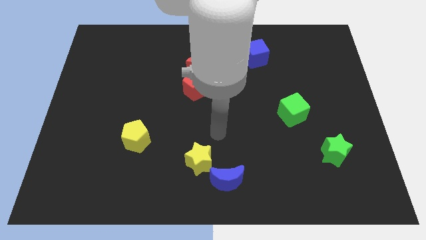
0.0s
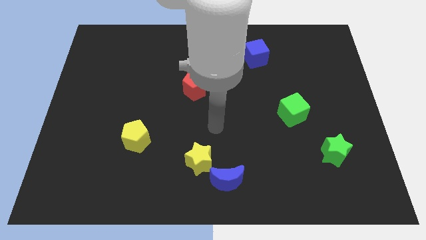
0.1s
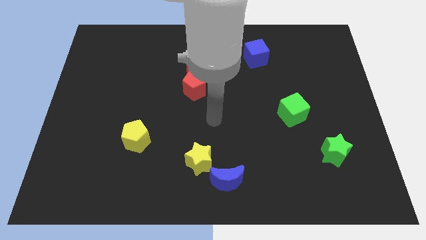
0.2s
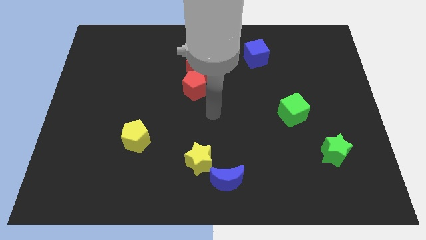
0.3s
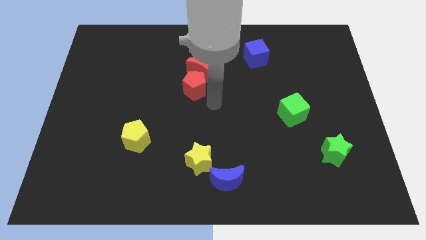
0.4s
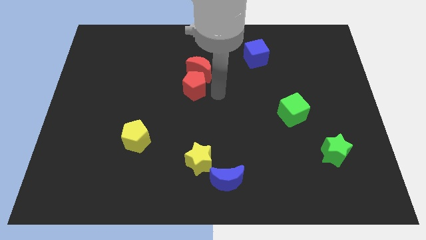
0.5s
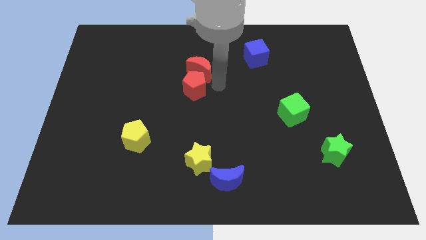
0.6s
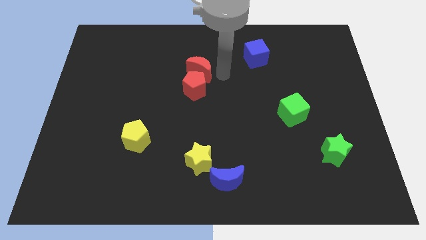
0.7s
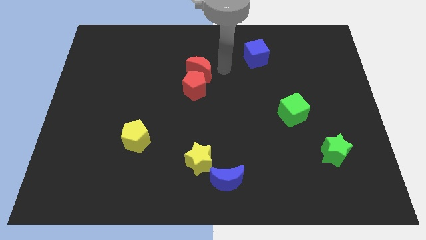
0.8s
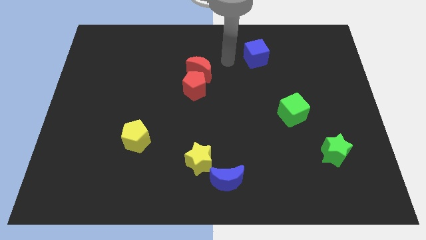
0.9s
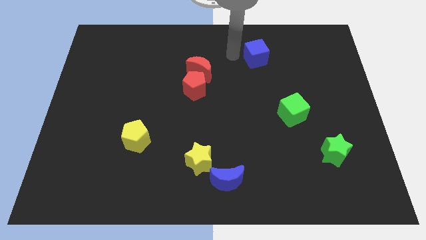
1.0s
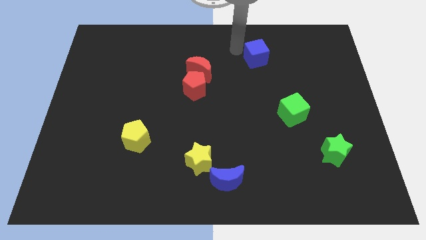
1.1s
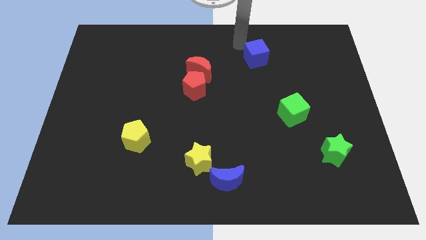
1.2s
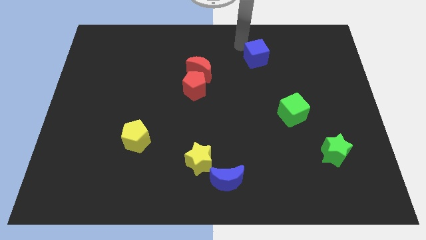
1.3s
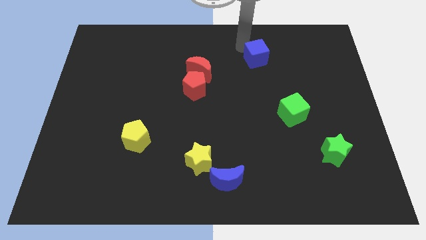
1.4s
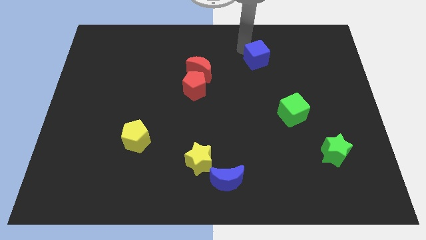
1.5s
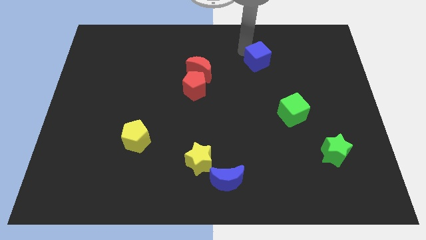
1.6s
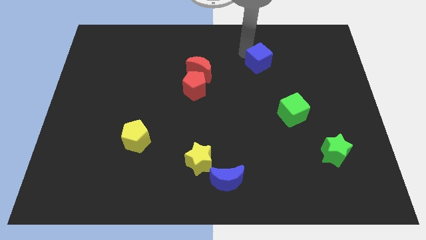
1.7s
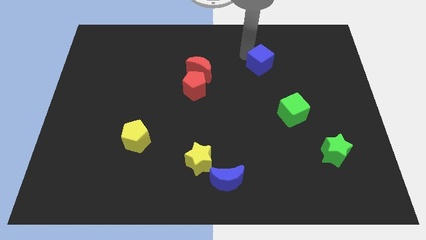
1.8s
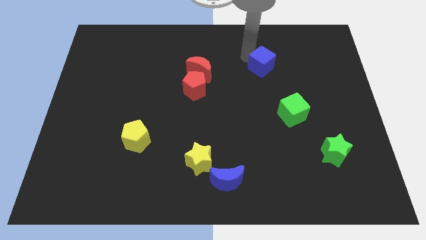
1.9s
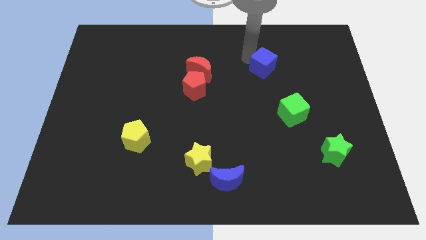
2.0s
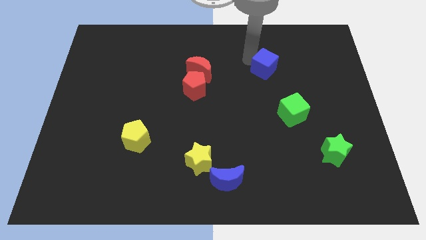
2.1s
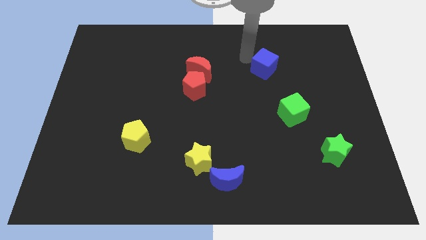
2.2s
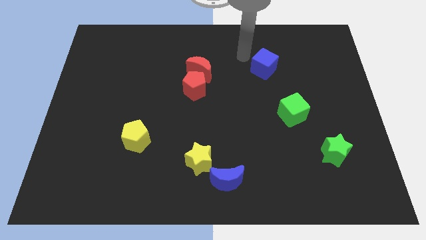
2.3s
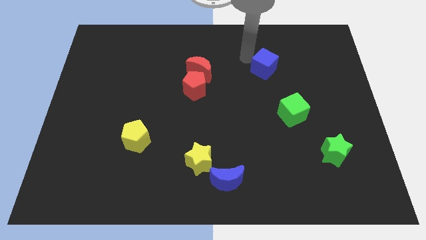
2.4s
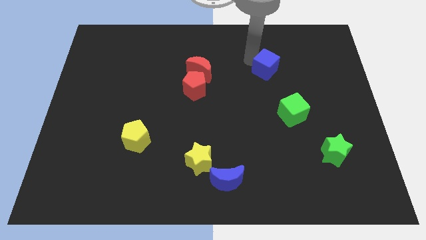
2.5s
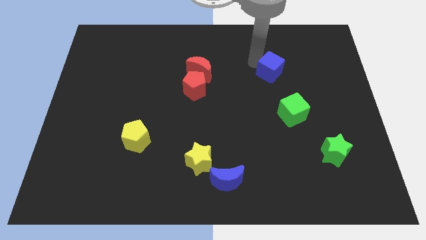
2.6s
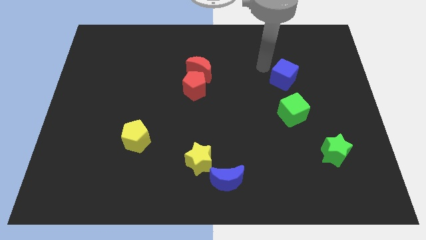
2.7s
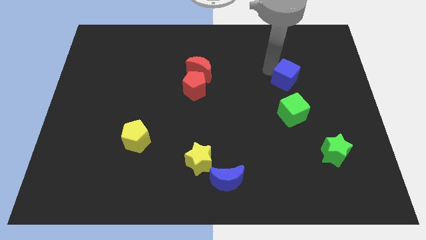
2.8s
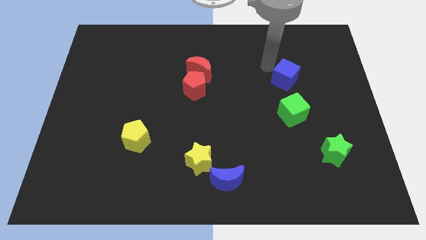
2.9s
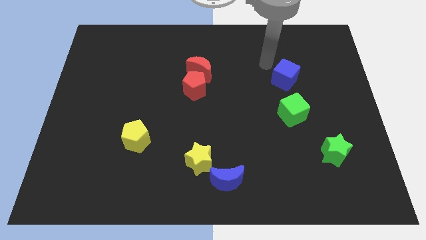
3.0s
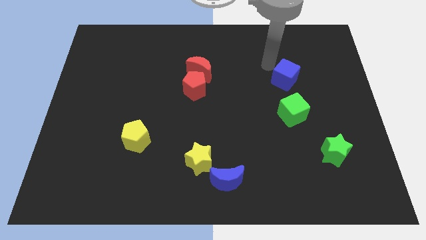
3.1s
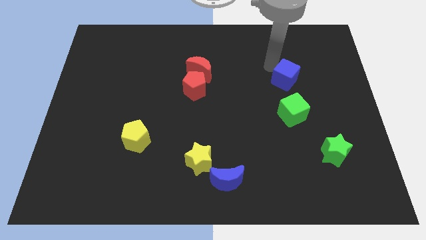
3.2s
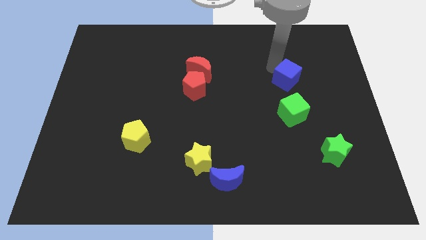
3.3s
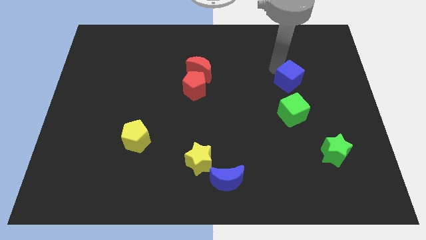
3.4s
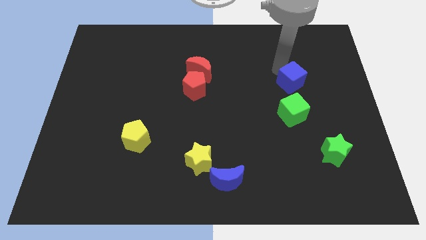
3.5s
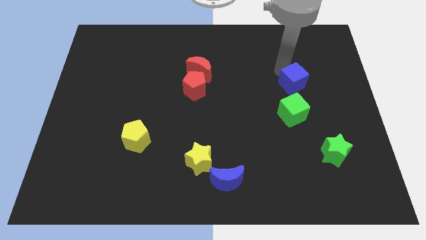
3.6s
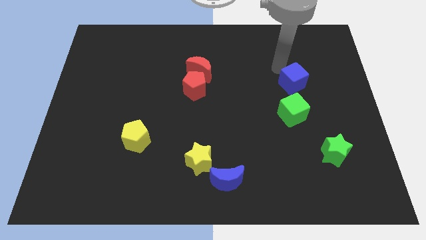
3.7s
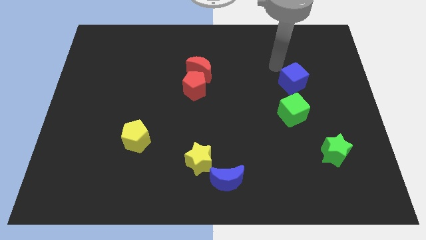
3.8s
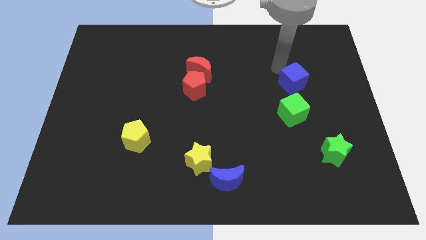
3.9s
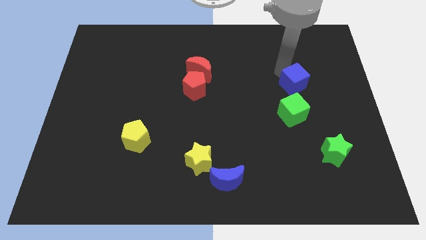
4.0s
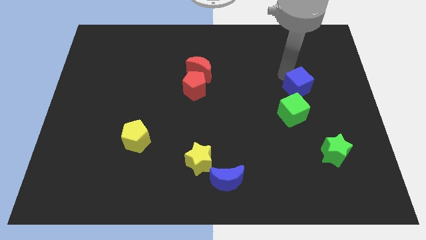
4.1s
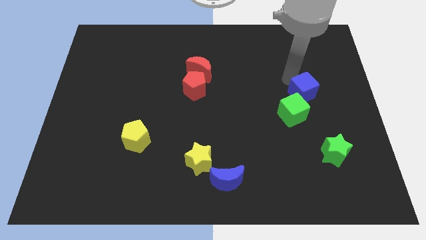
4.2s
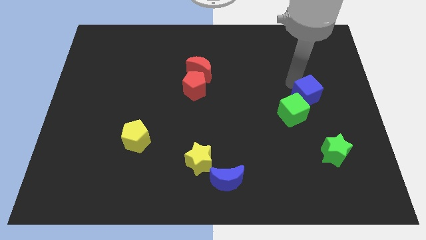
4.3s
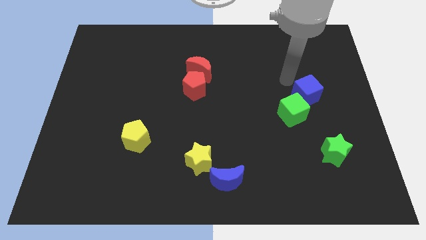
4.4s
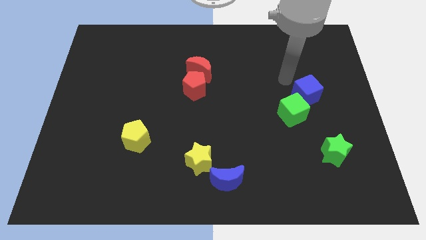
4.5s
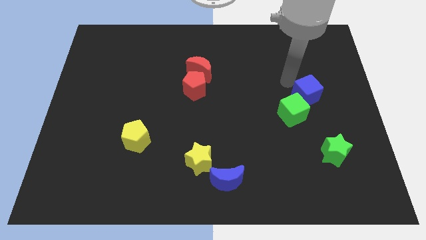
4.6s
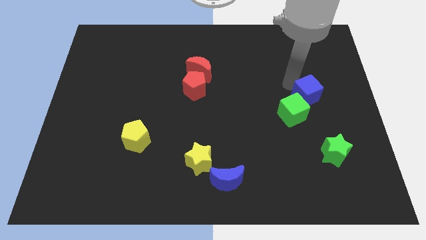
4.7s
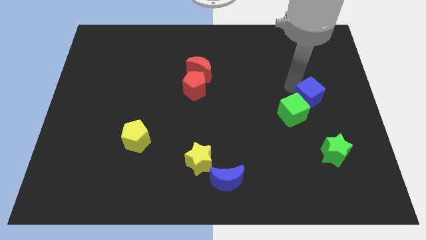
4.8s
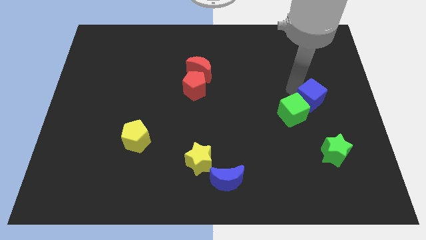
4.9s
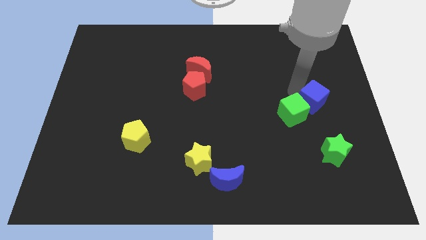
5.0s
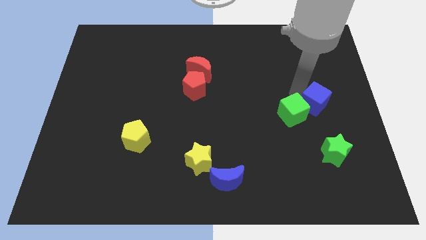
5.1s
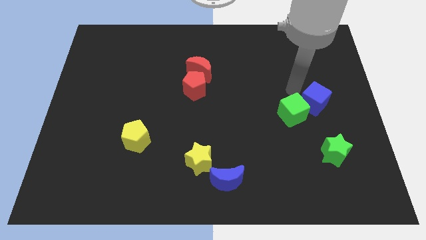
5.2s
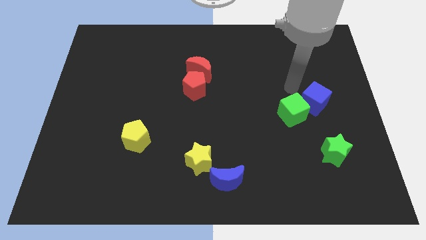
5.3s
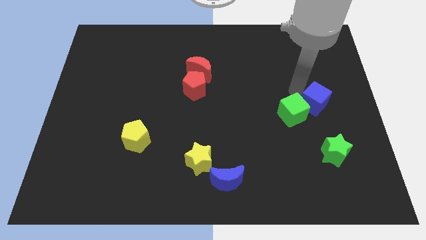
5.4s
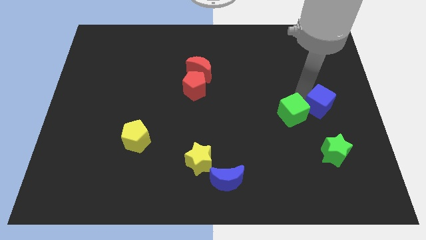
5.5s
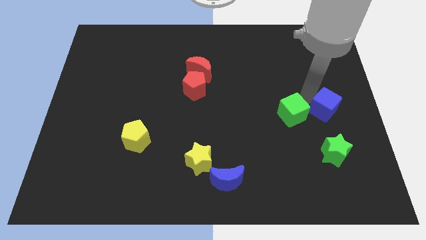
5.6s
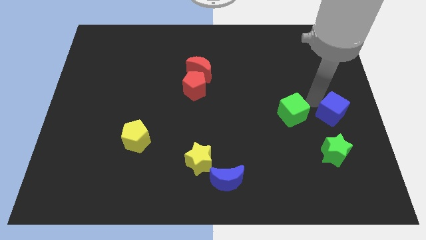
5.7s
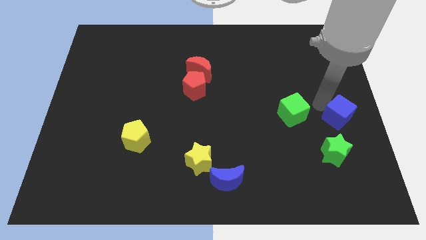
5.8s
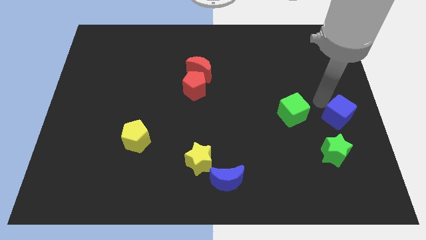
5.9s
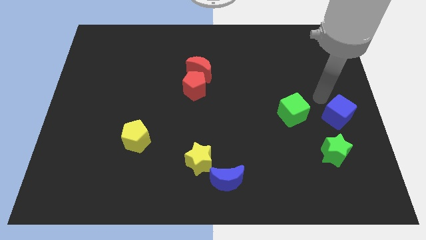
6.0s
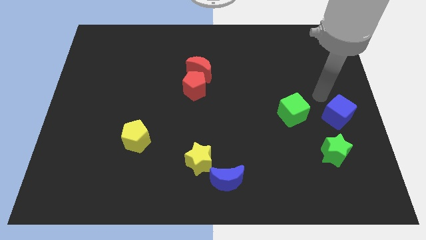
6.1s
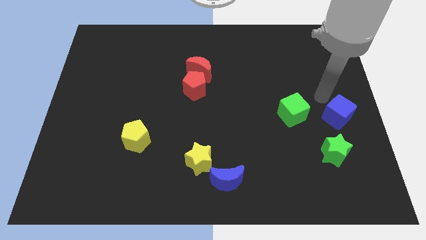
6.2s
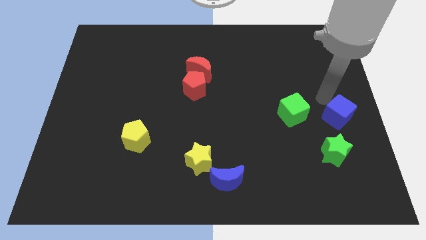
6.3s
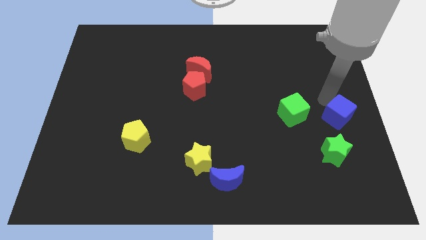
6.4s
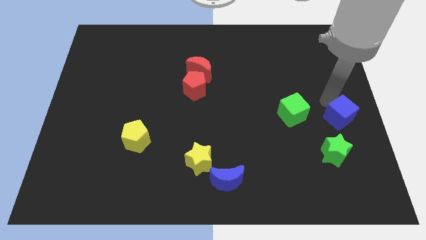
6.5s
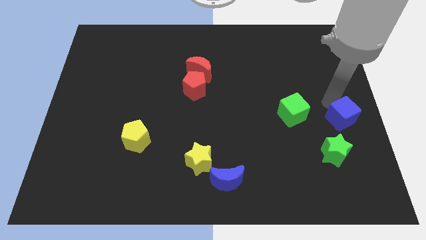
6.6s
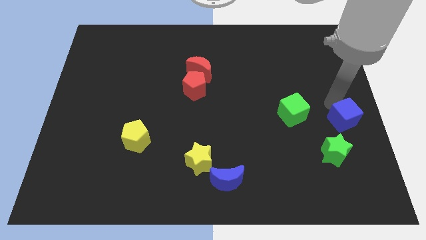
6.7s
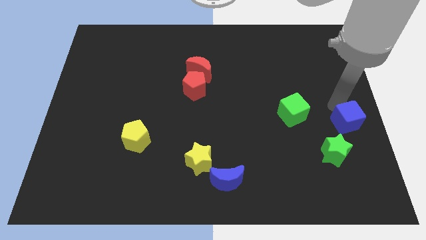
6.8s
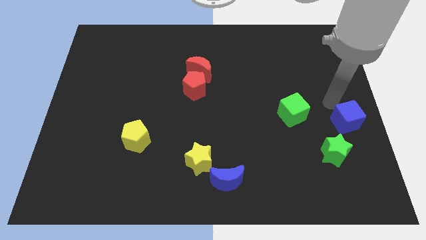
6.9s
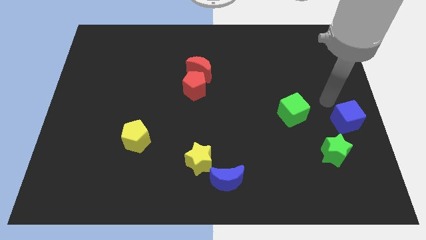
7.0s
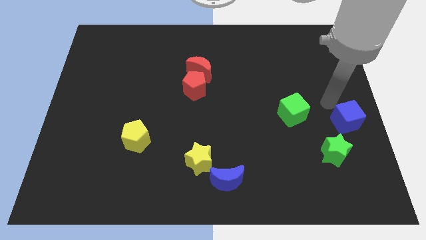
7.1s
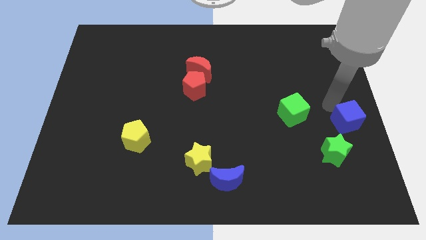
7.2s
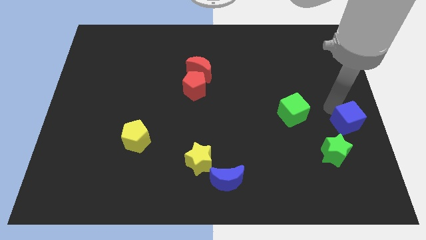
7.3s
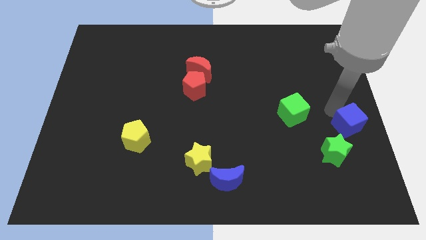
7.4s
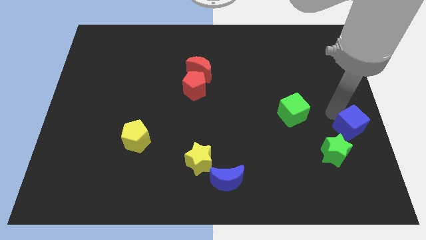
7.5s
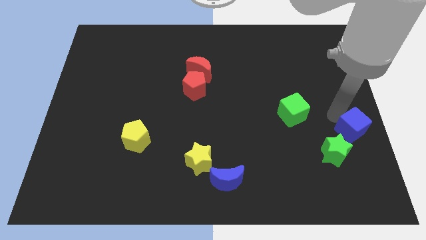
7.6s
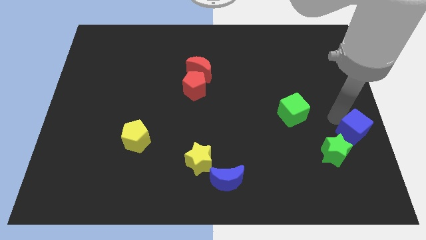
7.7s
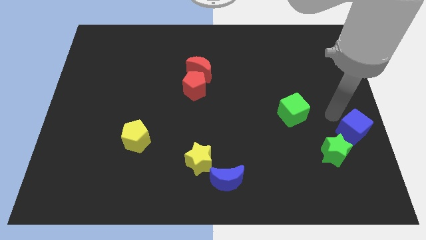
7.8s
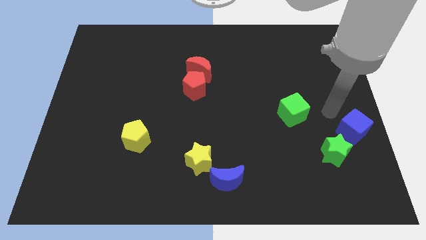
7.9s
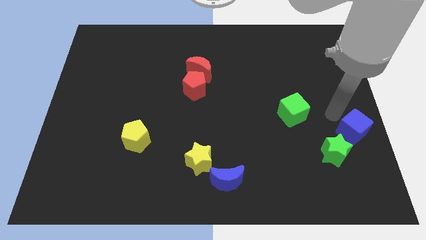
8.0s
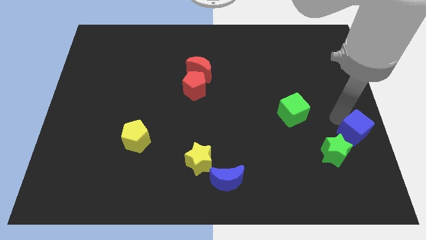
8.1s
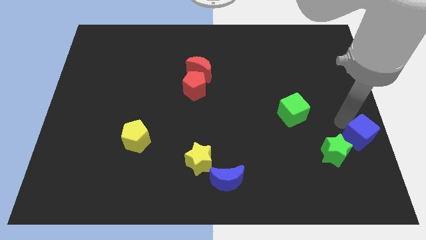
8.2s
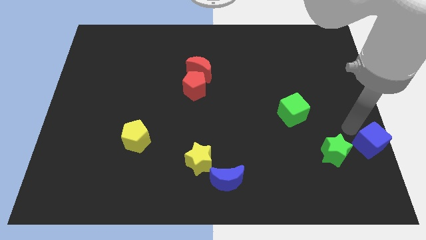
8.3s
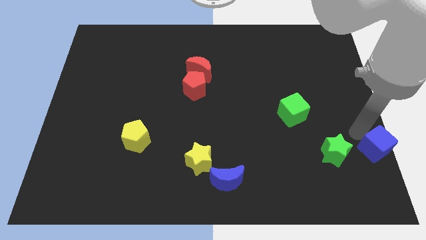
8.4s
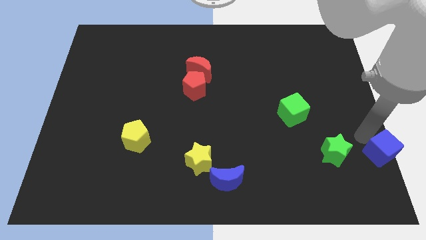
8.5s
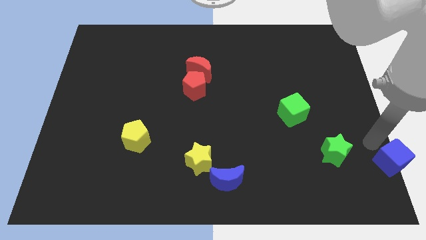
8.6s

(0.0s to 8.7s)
push the blue cube to the bottom right corner
